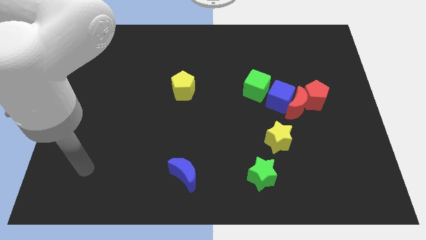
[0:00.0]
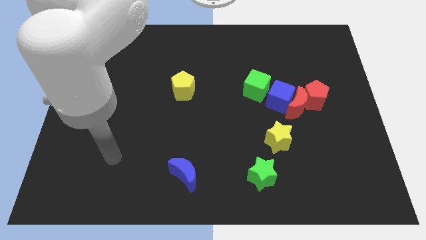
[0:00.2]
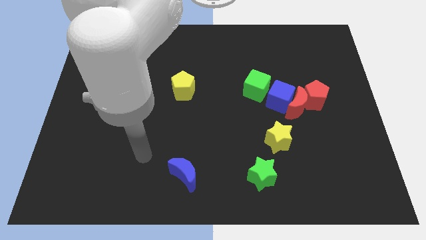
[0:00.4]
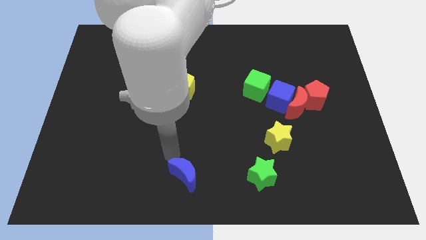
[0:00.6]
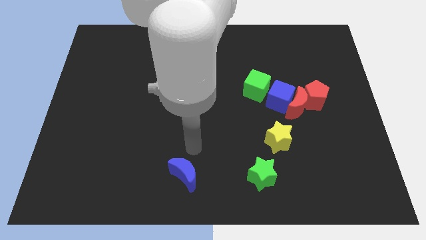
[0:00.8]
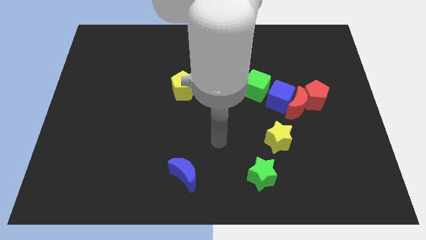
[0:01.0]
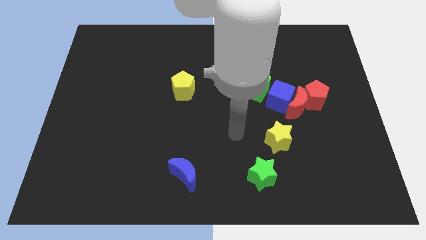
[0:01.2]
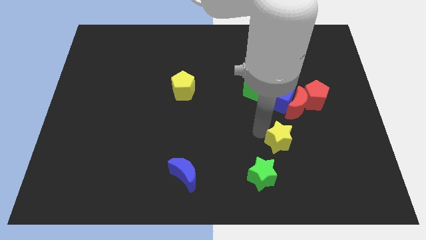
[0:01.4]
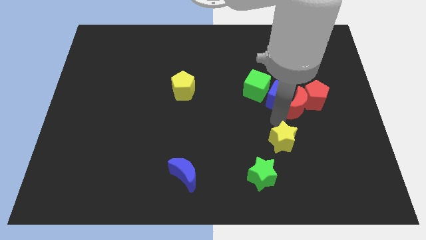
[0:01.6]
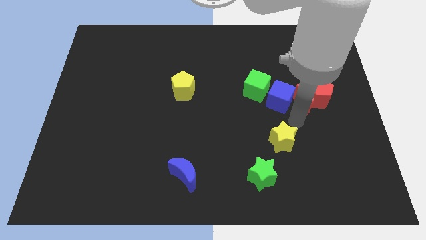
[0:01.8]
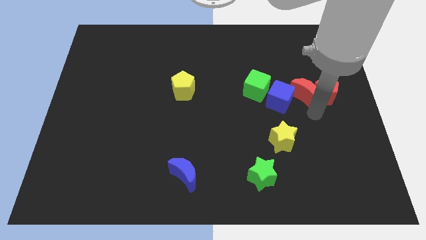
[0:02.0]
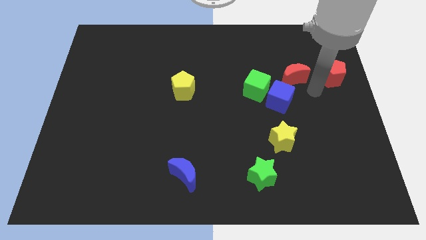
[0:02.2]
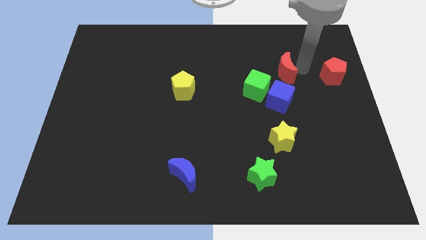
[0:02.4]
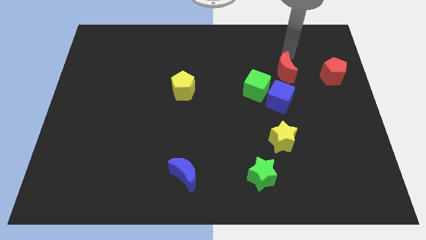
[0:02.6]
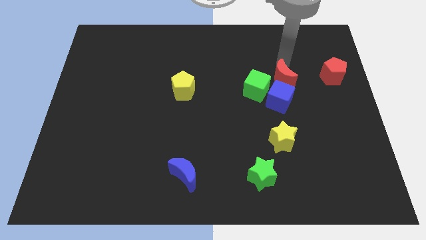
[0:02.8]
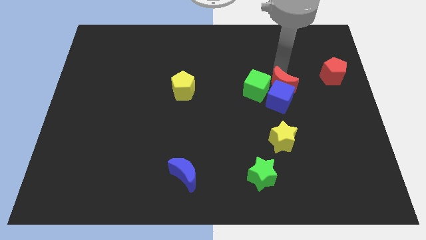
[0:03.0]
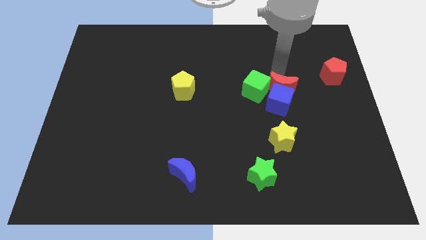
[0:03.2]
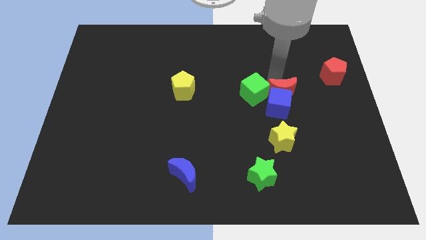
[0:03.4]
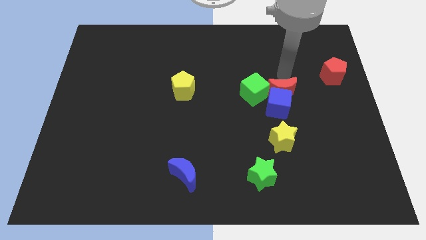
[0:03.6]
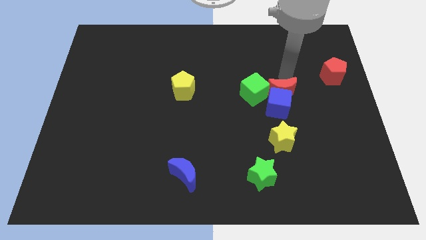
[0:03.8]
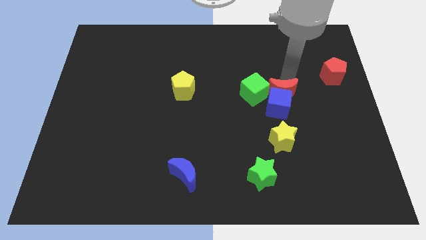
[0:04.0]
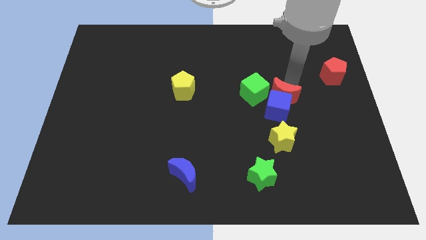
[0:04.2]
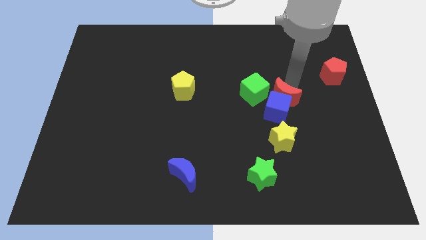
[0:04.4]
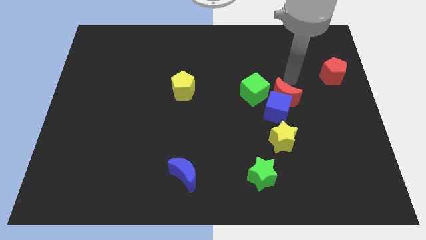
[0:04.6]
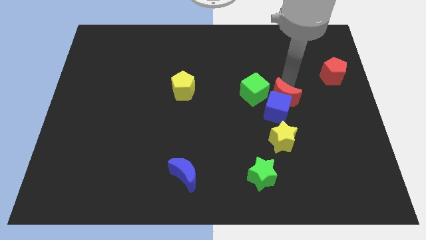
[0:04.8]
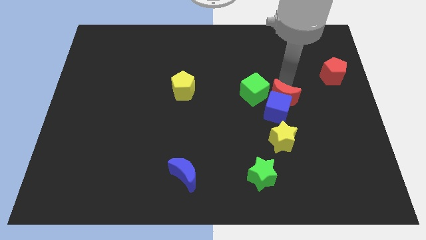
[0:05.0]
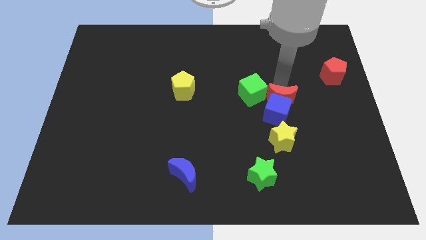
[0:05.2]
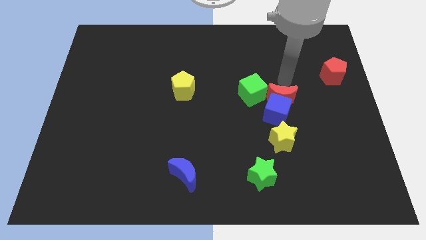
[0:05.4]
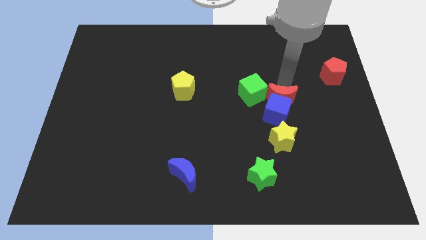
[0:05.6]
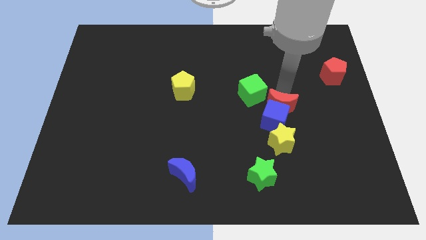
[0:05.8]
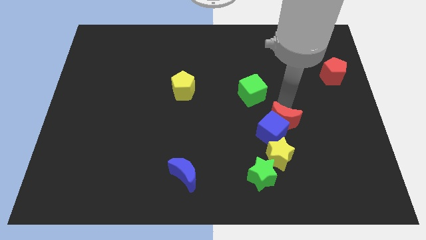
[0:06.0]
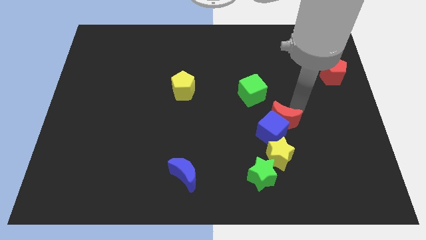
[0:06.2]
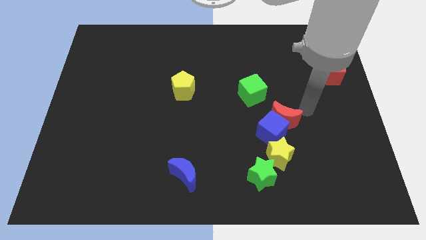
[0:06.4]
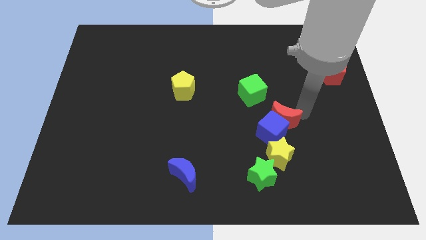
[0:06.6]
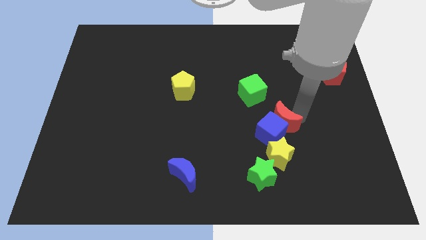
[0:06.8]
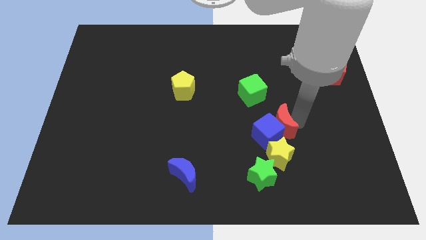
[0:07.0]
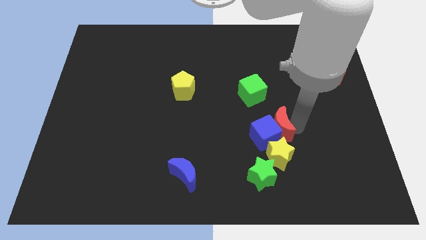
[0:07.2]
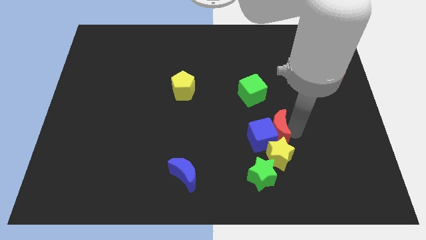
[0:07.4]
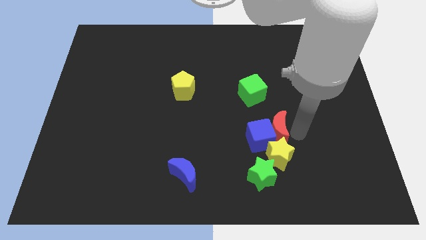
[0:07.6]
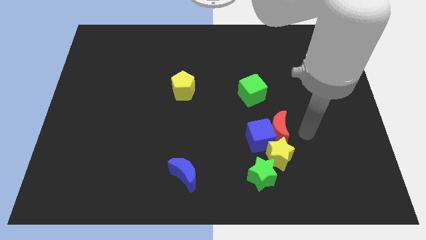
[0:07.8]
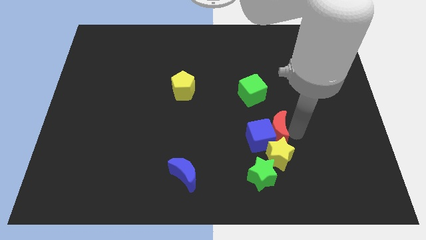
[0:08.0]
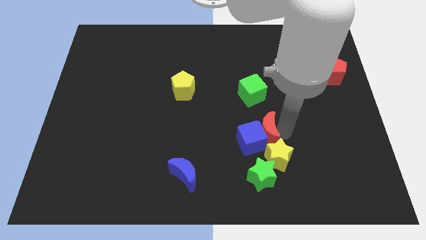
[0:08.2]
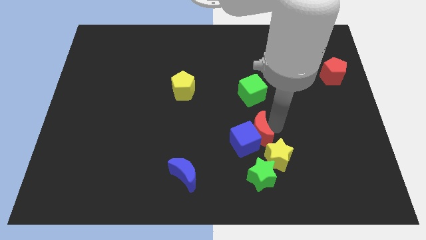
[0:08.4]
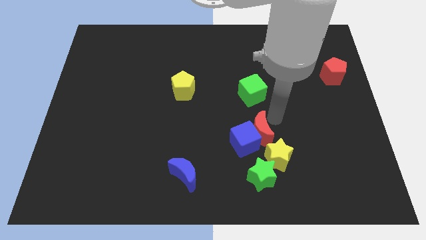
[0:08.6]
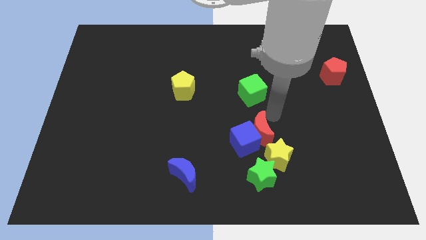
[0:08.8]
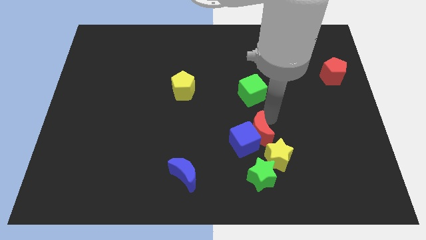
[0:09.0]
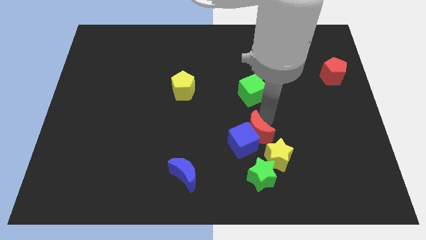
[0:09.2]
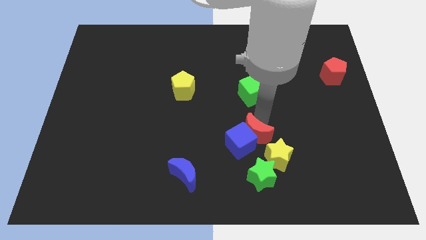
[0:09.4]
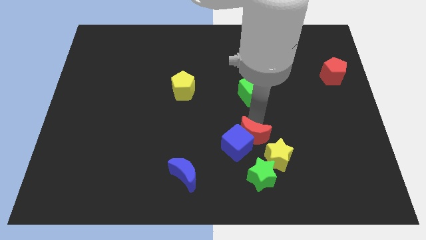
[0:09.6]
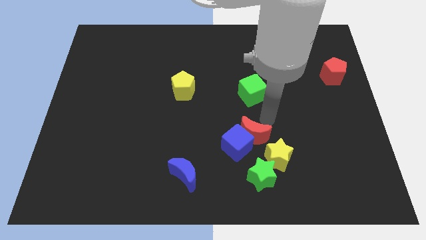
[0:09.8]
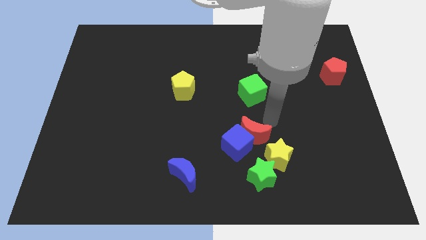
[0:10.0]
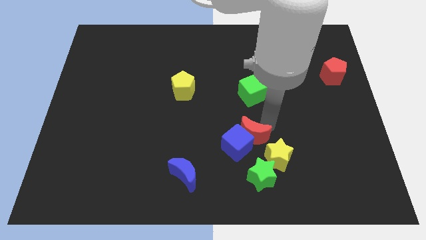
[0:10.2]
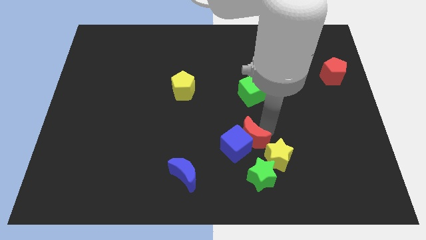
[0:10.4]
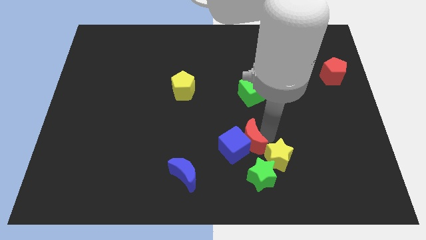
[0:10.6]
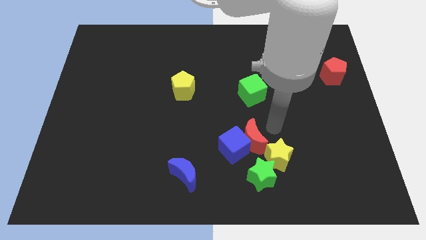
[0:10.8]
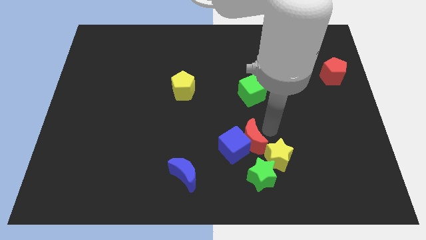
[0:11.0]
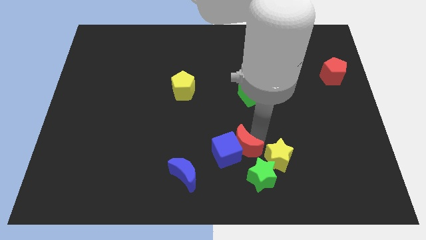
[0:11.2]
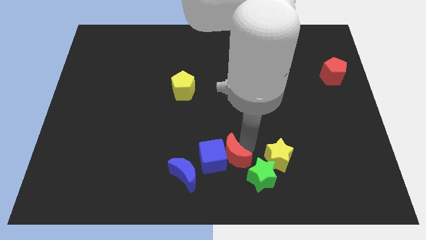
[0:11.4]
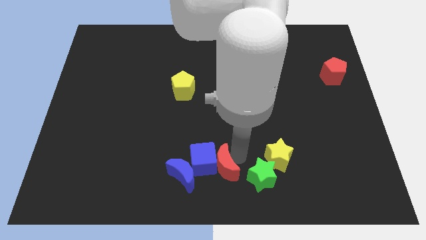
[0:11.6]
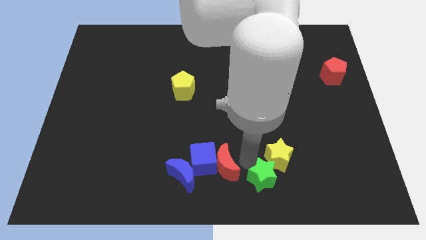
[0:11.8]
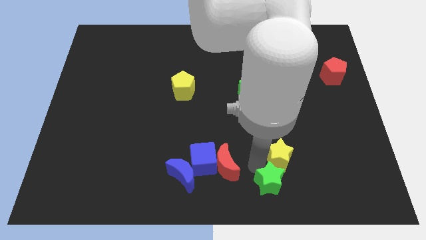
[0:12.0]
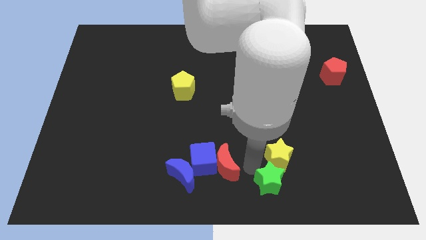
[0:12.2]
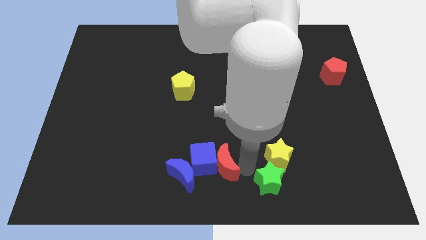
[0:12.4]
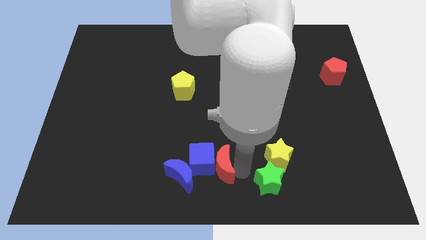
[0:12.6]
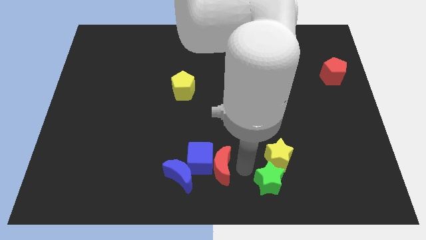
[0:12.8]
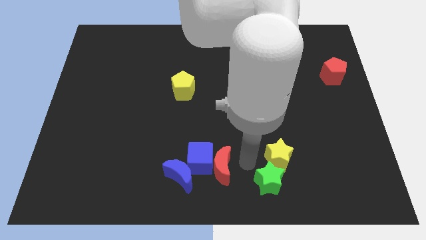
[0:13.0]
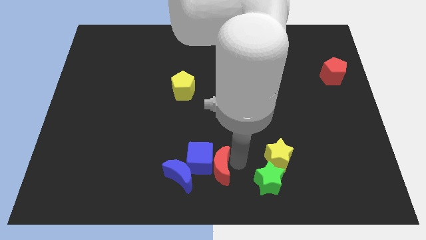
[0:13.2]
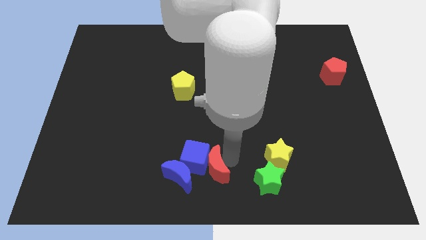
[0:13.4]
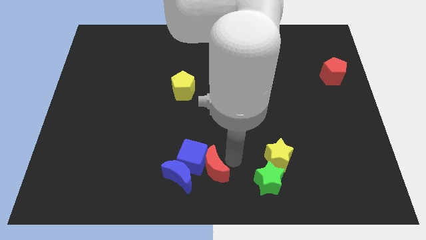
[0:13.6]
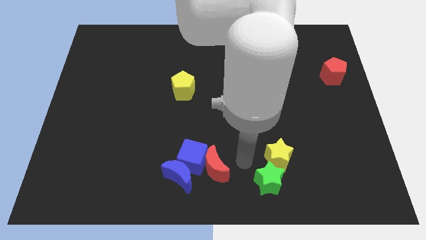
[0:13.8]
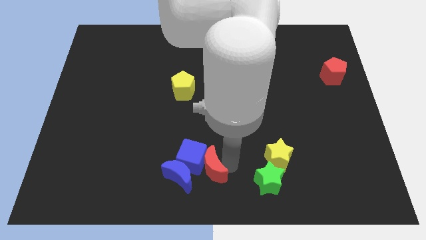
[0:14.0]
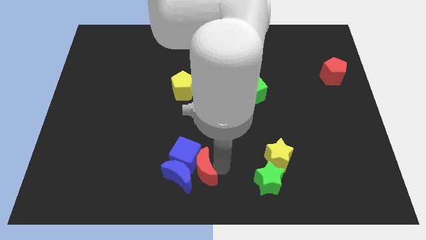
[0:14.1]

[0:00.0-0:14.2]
slide the red moon close to the blue moon

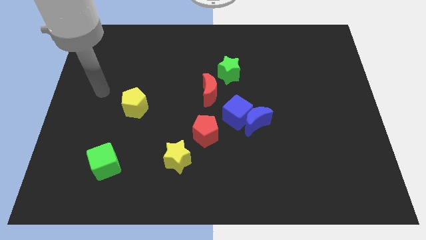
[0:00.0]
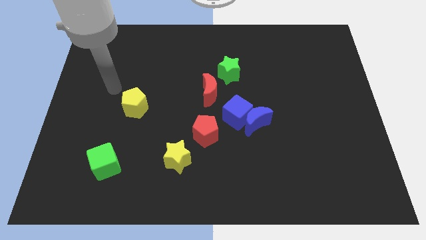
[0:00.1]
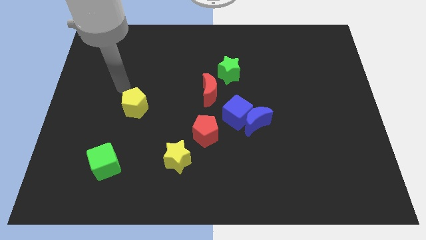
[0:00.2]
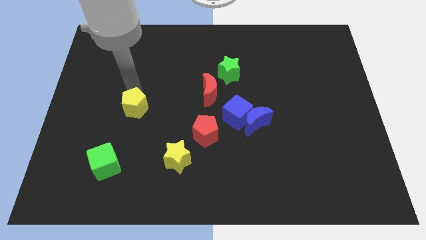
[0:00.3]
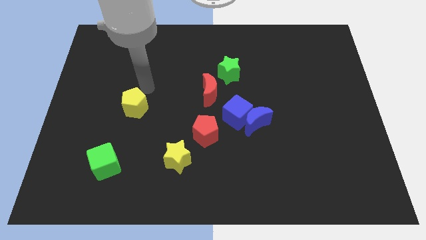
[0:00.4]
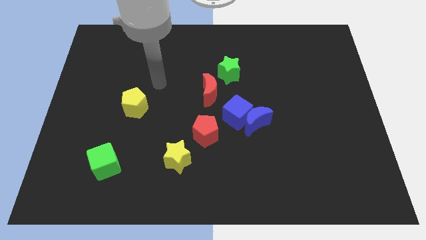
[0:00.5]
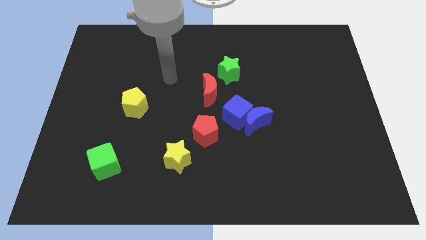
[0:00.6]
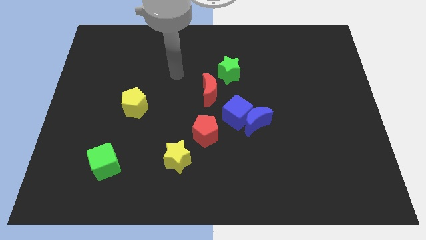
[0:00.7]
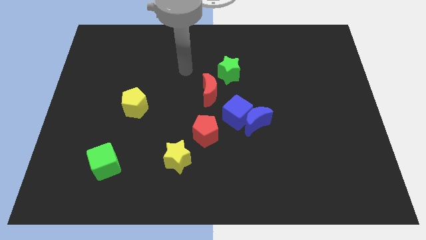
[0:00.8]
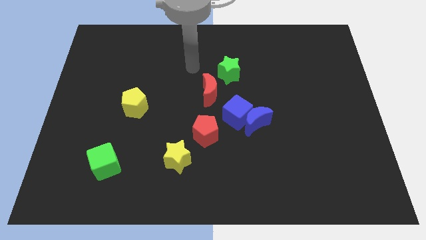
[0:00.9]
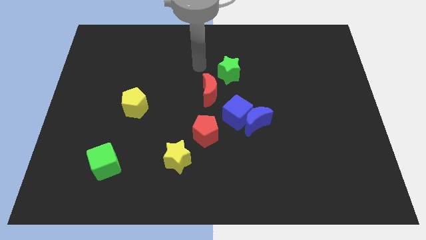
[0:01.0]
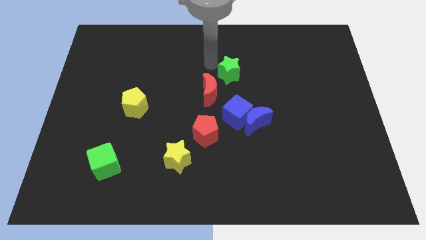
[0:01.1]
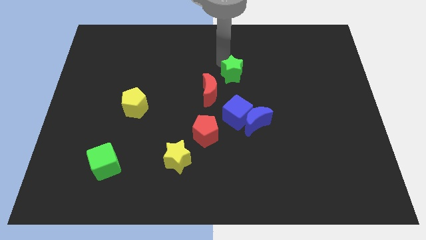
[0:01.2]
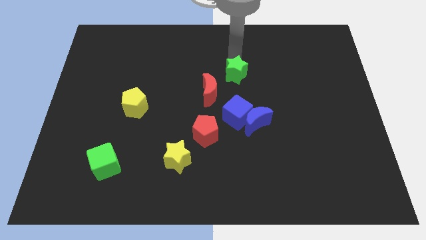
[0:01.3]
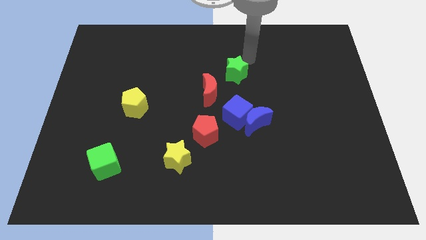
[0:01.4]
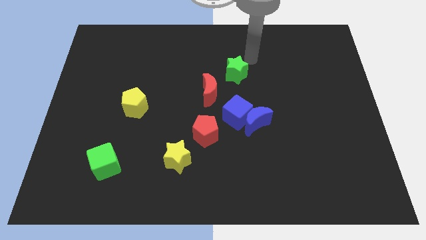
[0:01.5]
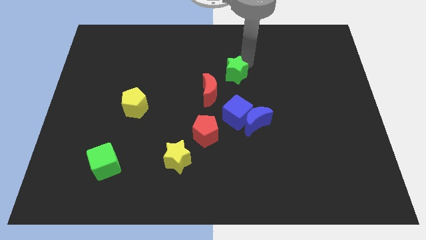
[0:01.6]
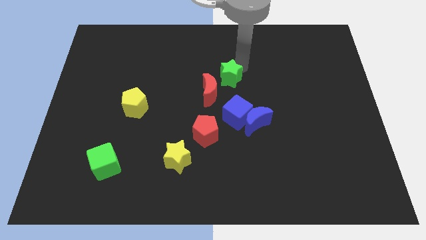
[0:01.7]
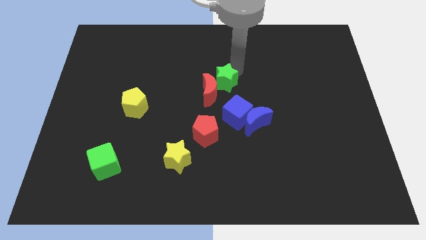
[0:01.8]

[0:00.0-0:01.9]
put the green star close to the red moon
